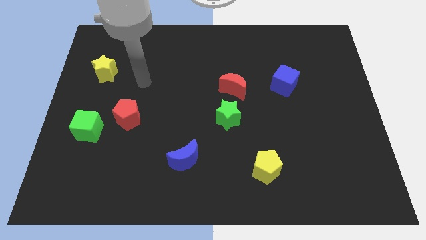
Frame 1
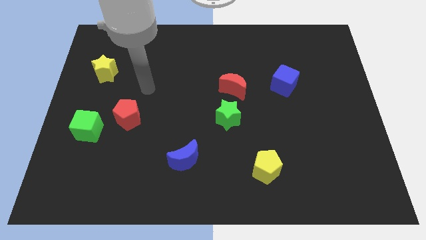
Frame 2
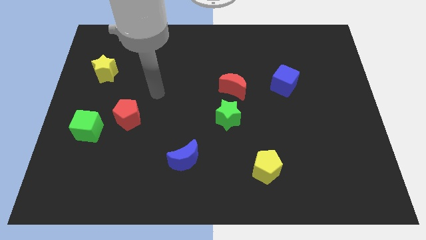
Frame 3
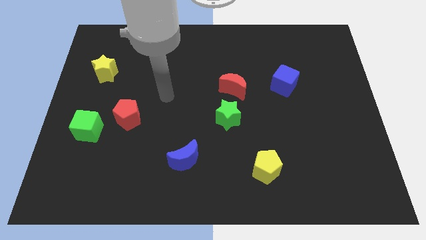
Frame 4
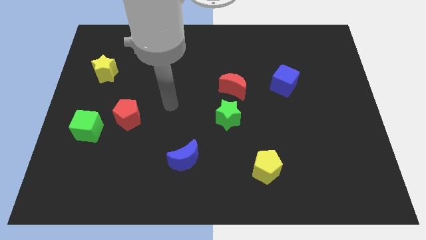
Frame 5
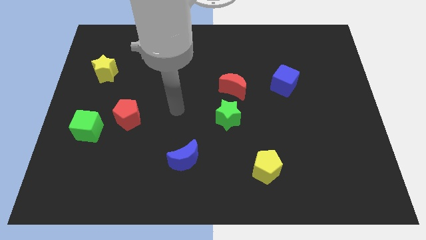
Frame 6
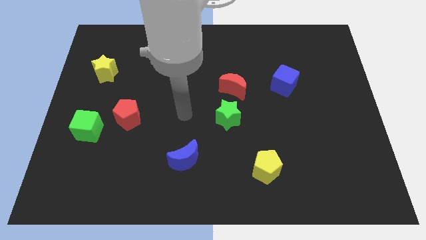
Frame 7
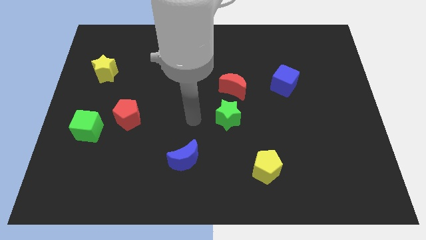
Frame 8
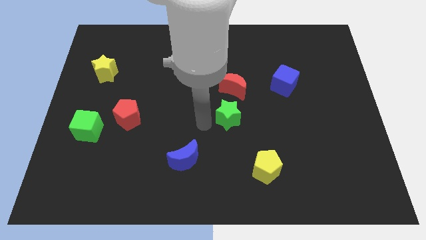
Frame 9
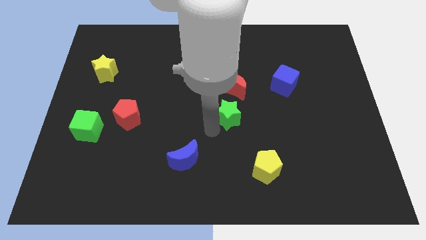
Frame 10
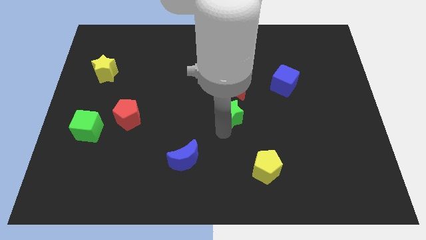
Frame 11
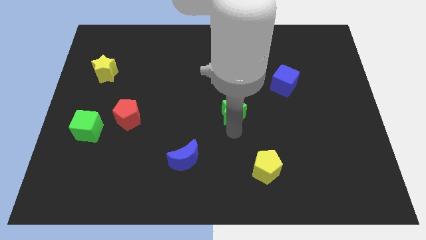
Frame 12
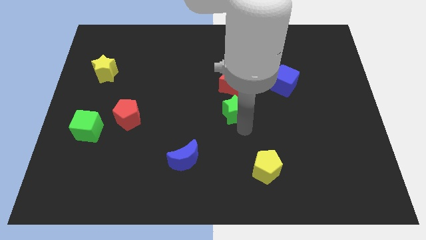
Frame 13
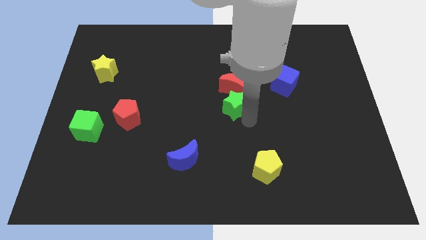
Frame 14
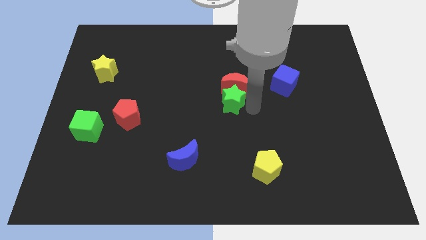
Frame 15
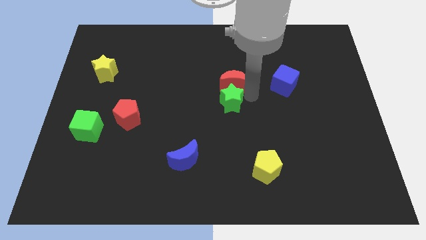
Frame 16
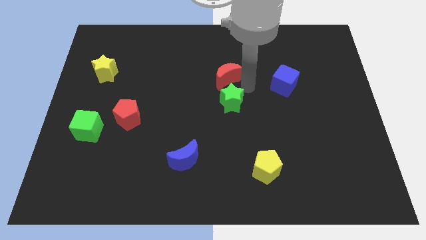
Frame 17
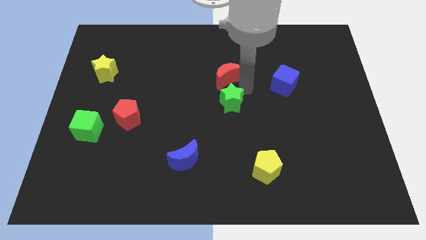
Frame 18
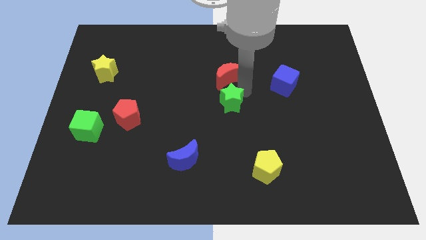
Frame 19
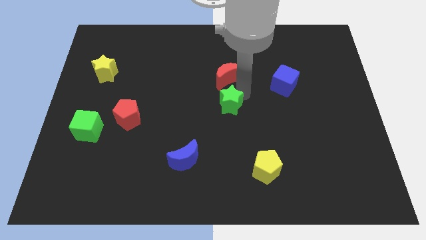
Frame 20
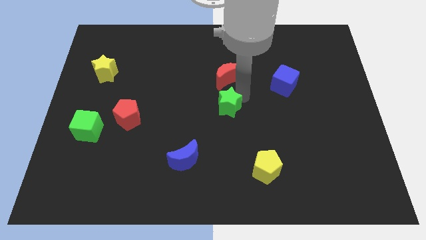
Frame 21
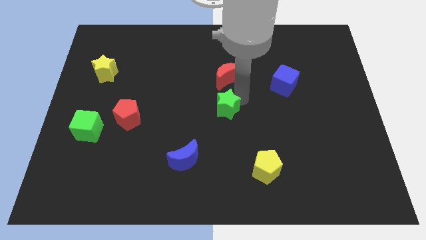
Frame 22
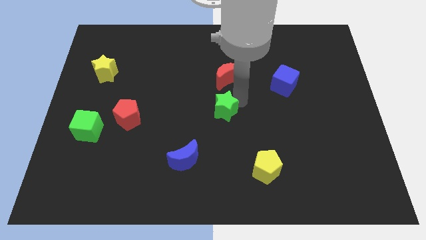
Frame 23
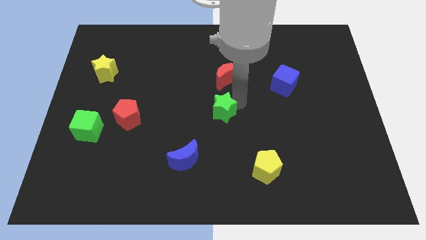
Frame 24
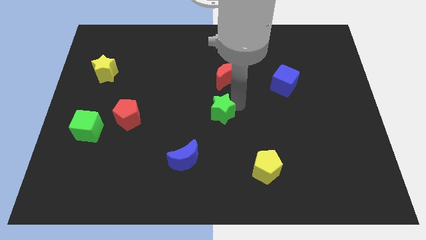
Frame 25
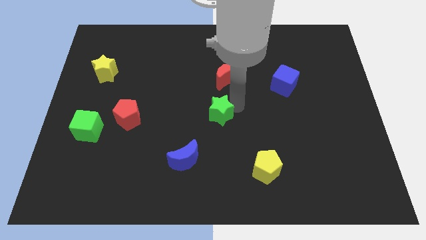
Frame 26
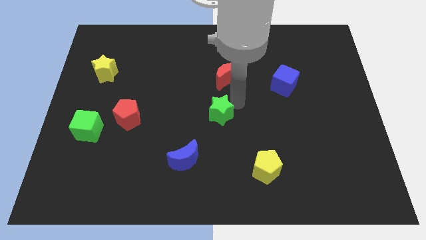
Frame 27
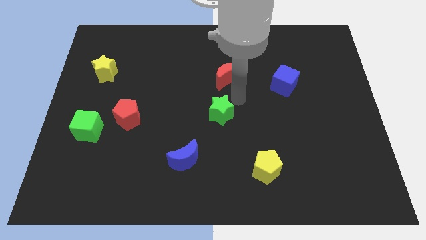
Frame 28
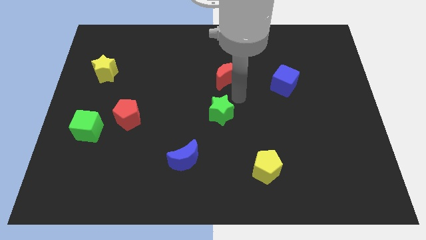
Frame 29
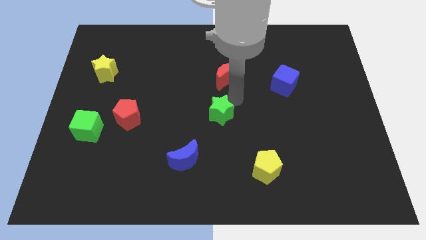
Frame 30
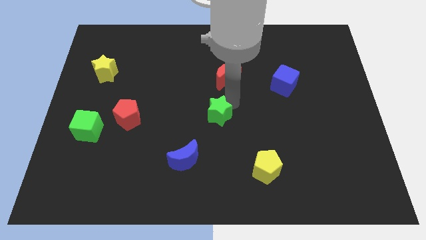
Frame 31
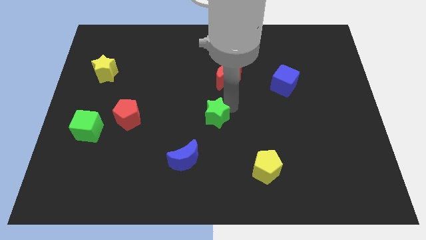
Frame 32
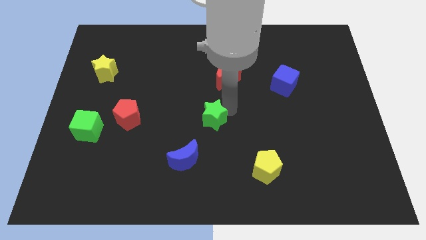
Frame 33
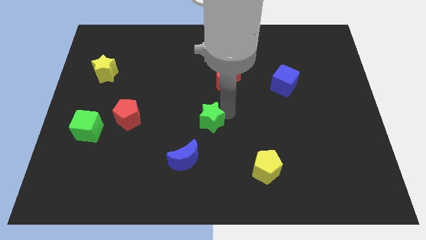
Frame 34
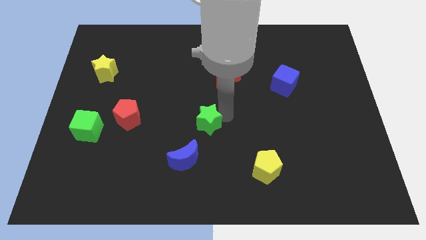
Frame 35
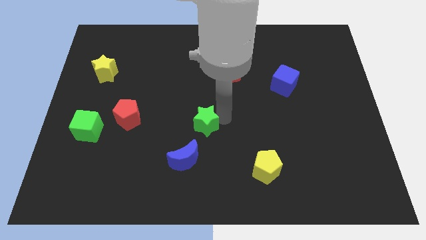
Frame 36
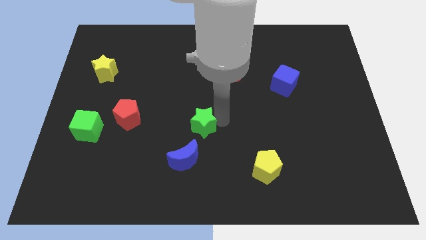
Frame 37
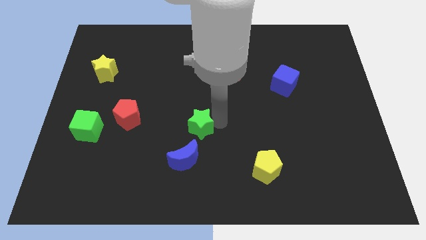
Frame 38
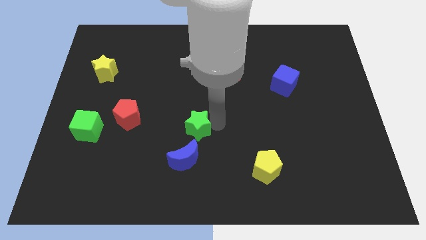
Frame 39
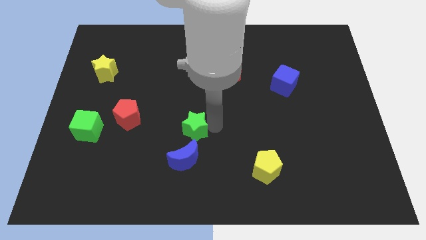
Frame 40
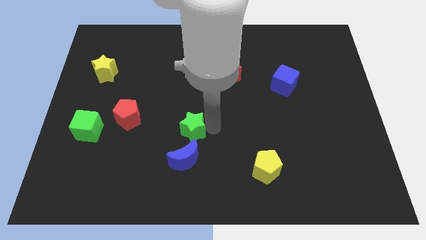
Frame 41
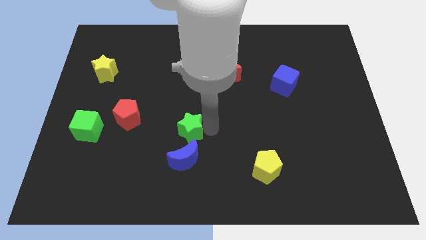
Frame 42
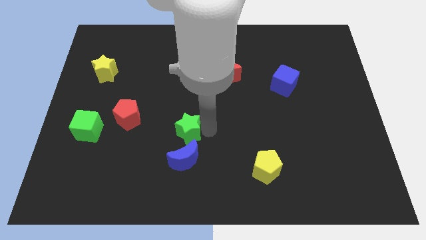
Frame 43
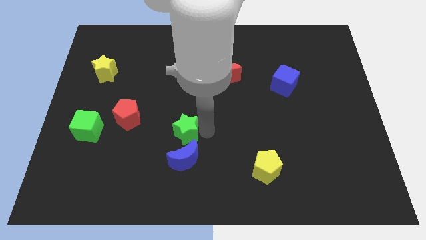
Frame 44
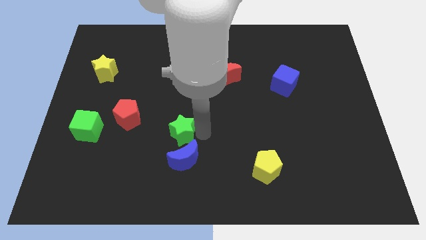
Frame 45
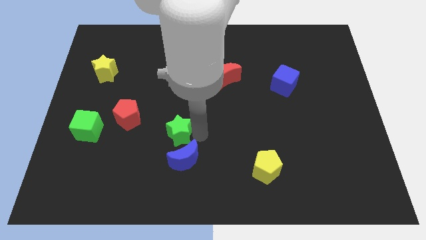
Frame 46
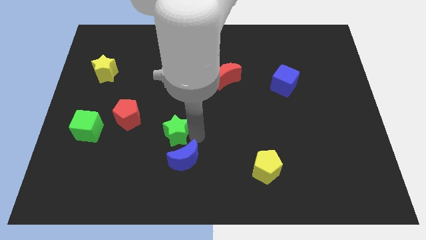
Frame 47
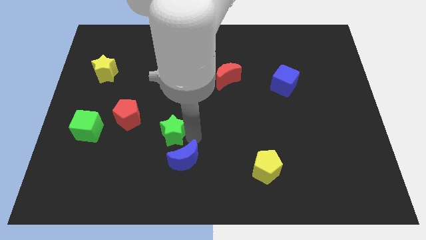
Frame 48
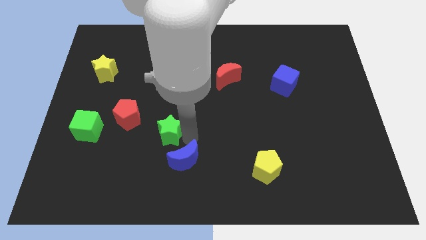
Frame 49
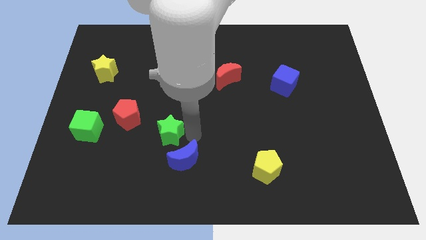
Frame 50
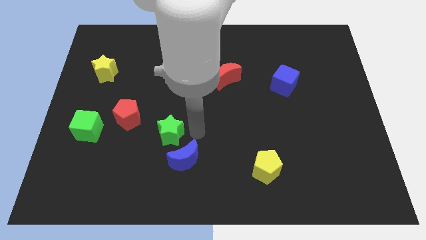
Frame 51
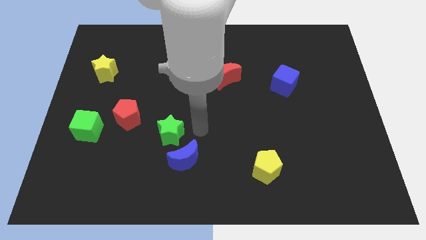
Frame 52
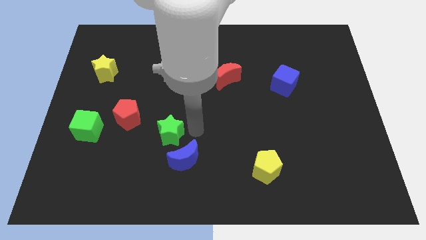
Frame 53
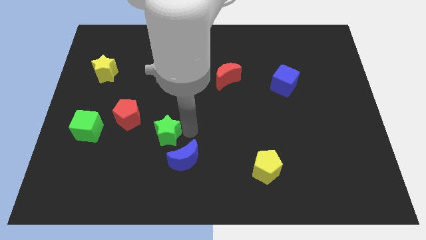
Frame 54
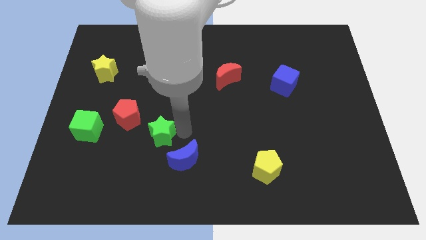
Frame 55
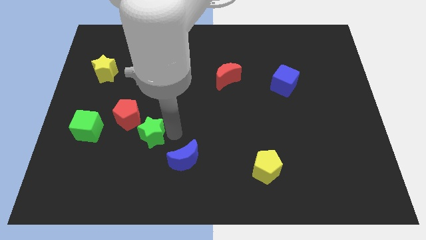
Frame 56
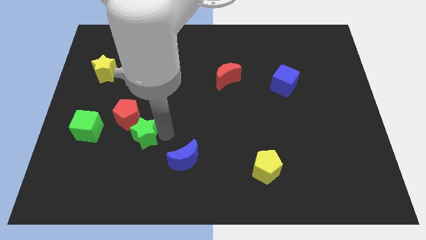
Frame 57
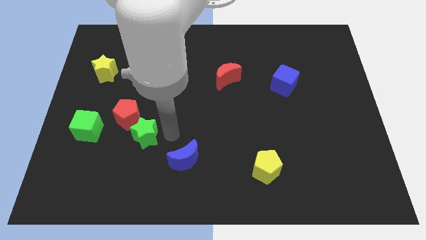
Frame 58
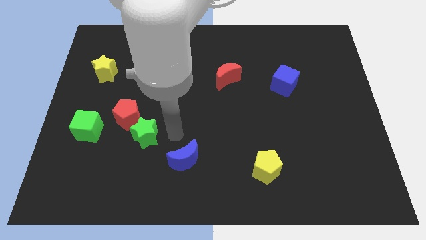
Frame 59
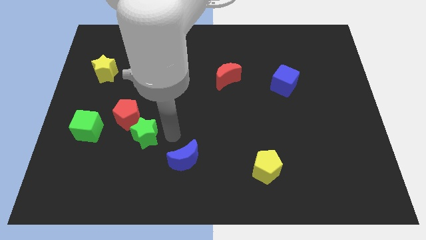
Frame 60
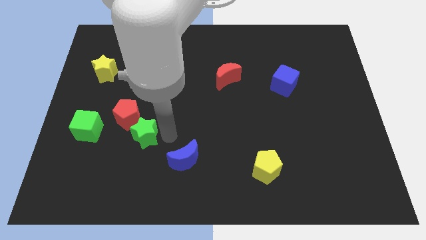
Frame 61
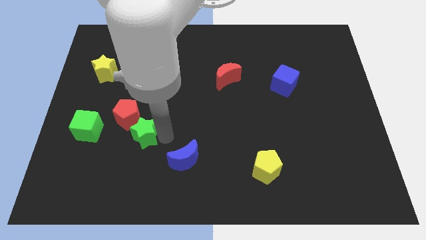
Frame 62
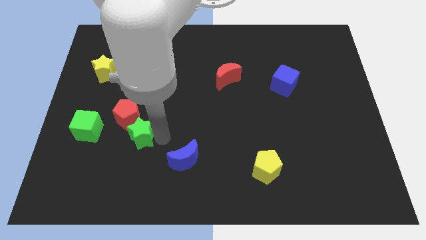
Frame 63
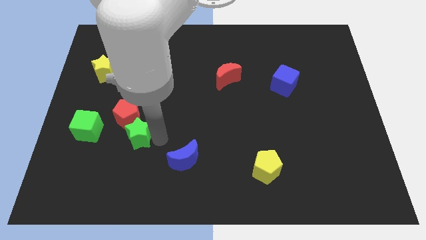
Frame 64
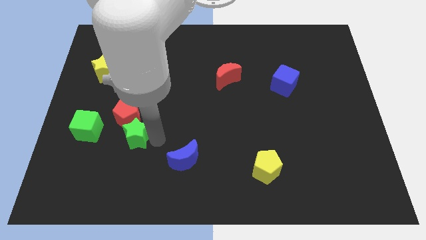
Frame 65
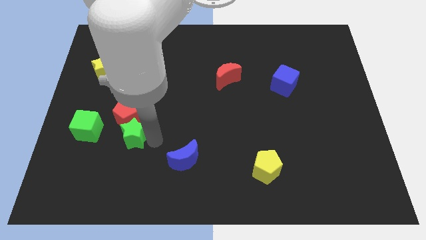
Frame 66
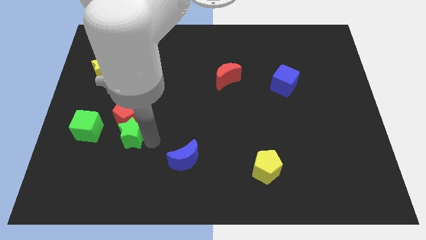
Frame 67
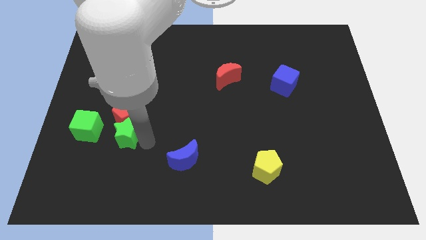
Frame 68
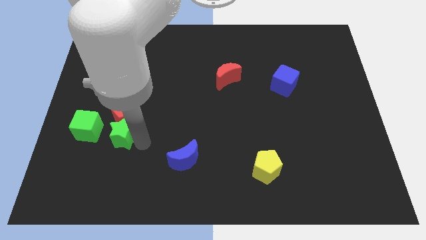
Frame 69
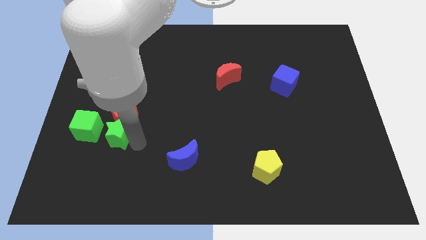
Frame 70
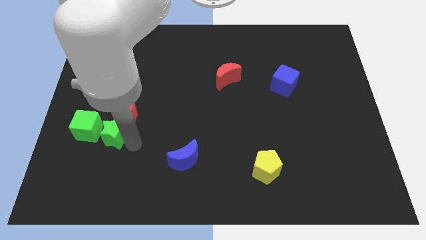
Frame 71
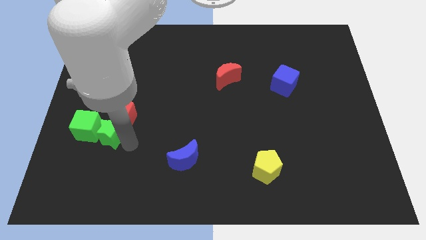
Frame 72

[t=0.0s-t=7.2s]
move the green star to the green cube

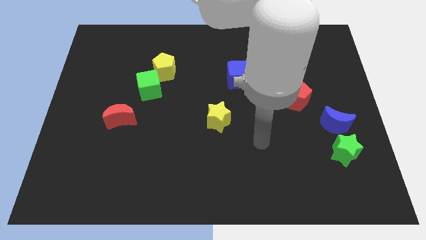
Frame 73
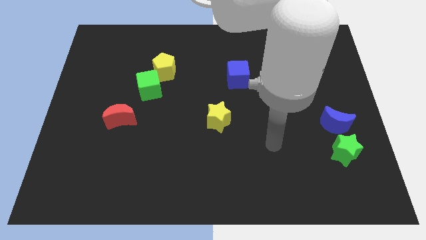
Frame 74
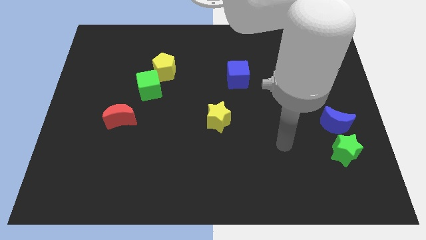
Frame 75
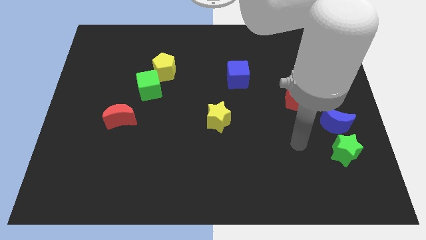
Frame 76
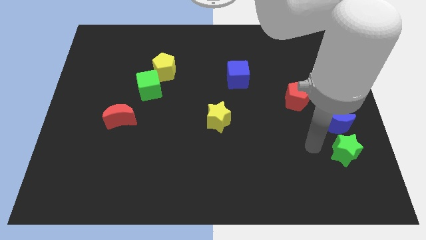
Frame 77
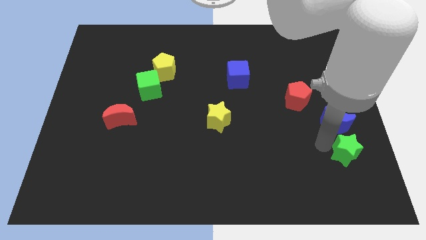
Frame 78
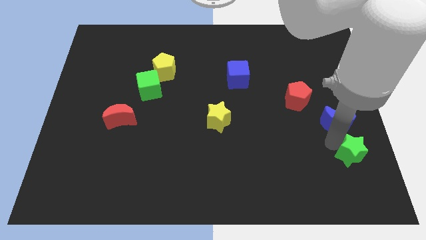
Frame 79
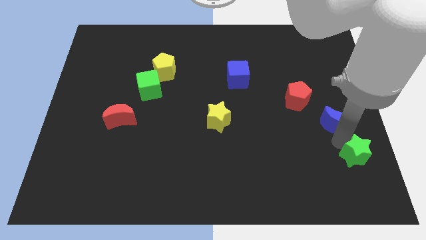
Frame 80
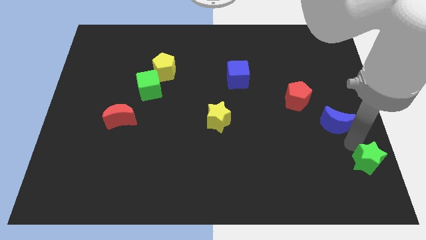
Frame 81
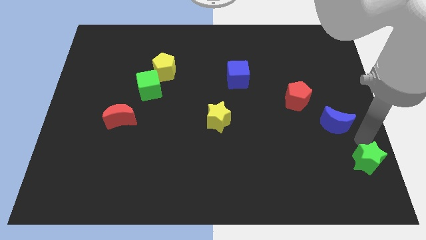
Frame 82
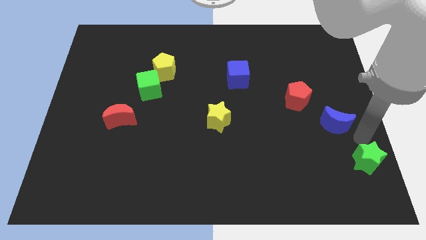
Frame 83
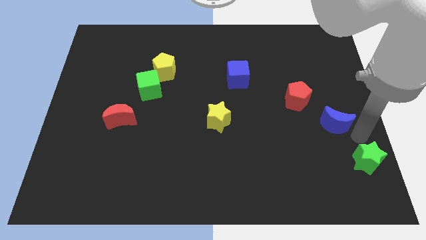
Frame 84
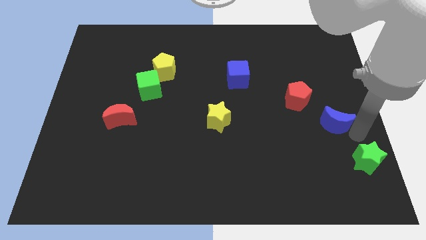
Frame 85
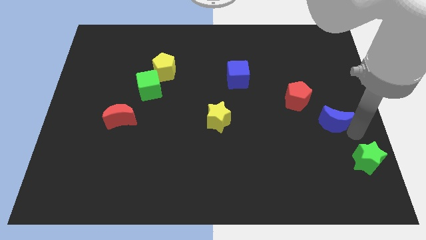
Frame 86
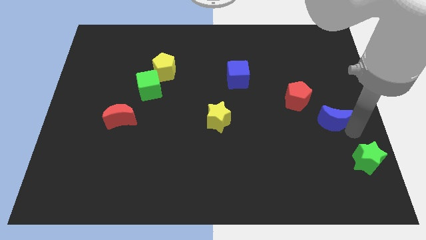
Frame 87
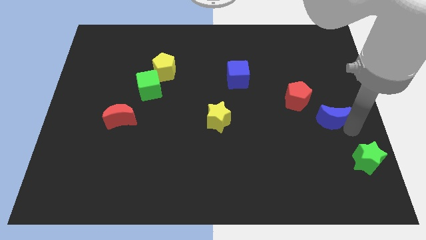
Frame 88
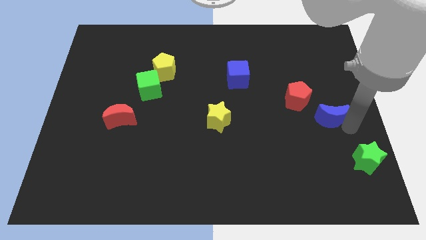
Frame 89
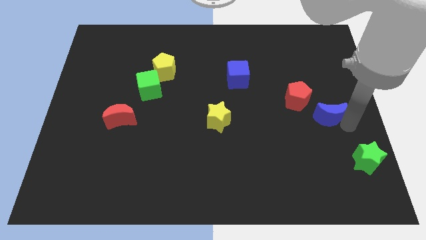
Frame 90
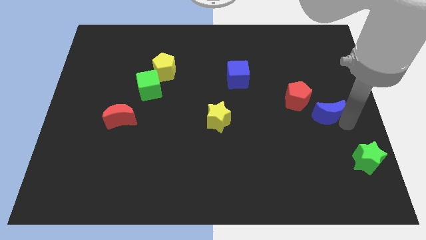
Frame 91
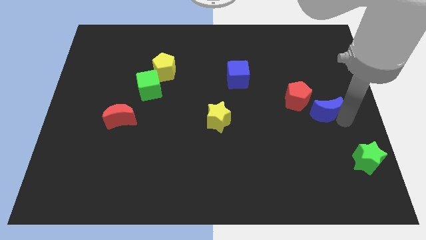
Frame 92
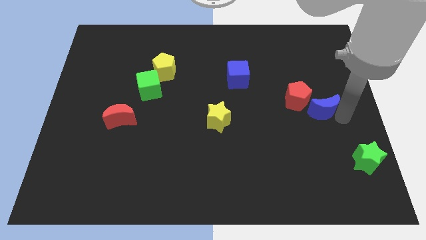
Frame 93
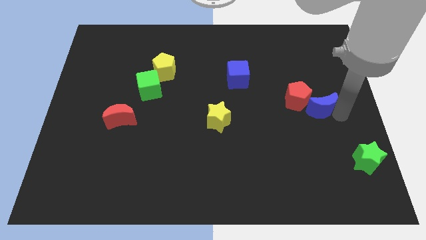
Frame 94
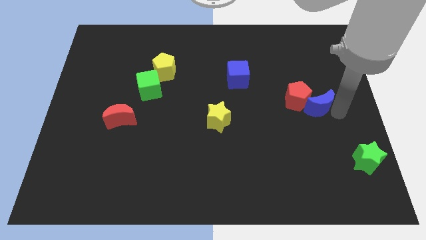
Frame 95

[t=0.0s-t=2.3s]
slide the blue moon close to the red pentagon
